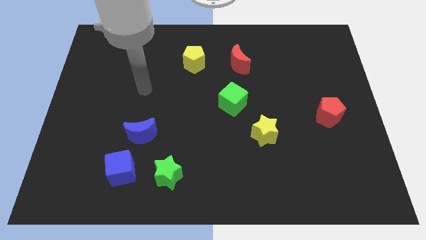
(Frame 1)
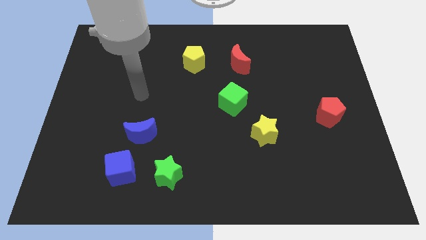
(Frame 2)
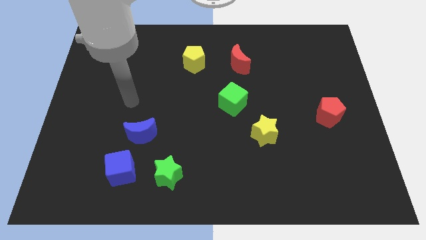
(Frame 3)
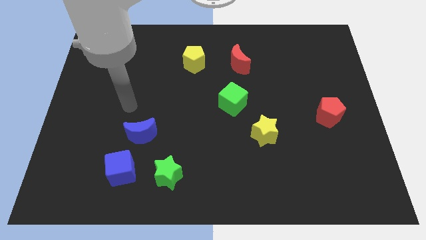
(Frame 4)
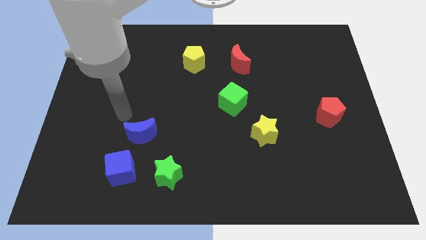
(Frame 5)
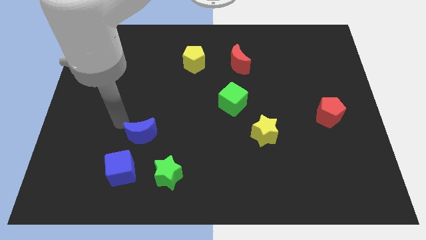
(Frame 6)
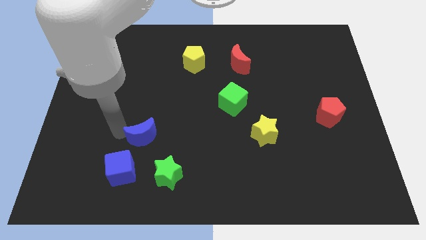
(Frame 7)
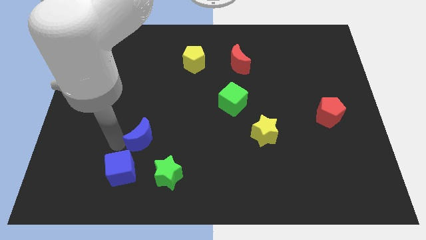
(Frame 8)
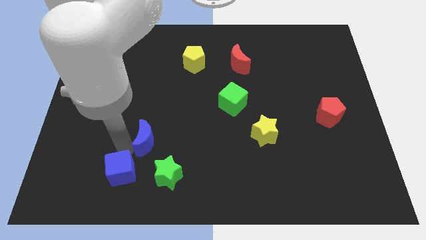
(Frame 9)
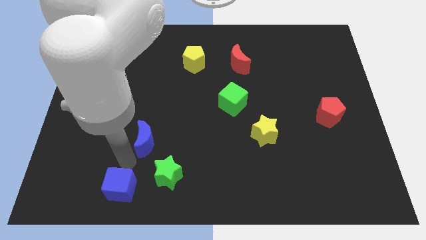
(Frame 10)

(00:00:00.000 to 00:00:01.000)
pull the blue moon apart from the blue cube

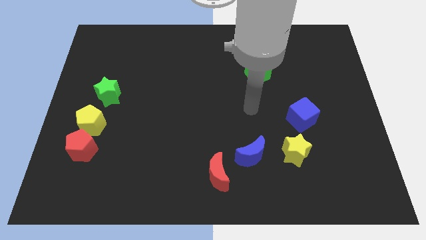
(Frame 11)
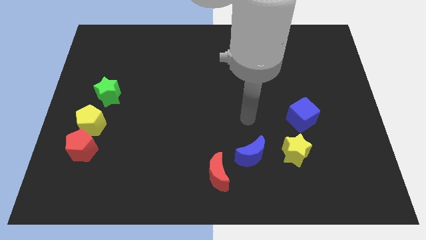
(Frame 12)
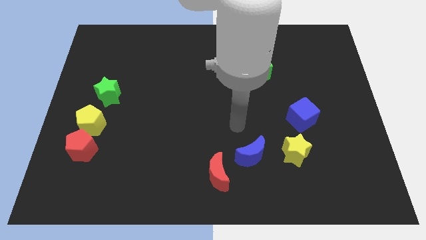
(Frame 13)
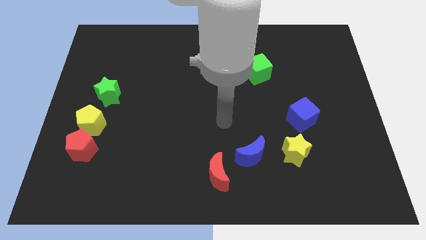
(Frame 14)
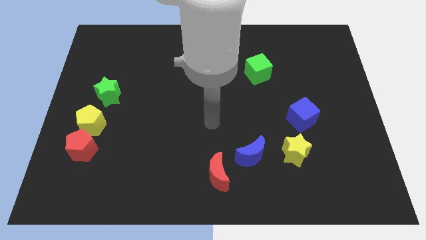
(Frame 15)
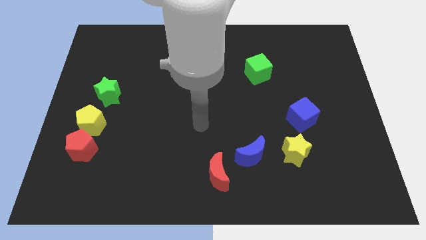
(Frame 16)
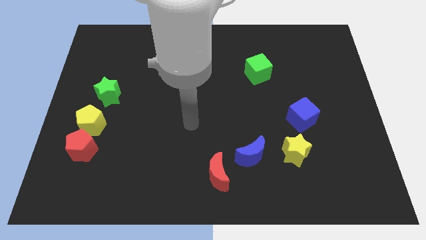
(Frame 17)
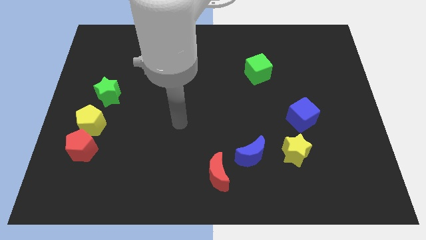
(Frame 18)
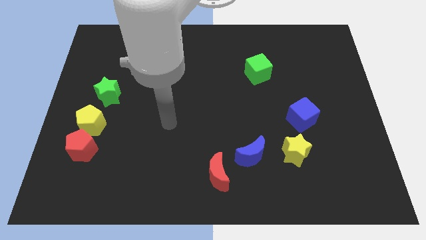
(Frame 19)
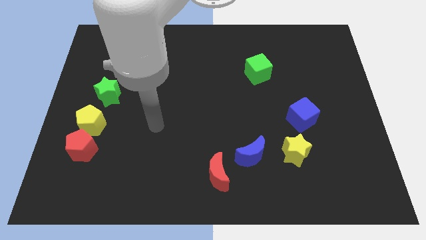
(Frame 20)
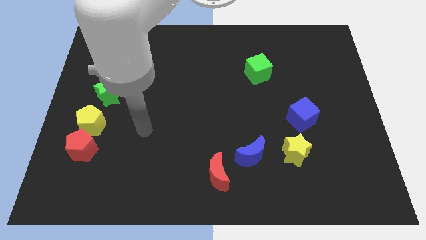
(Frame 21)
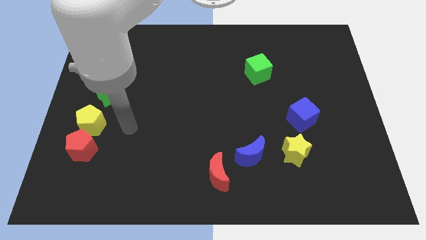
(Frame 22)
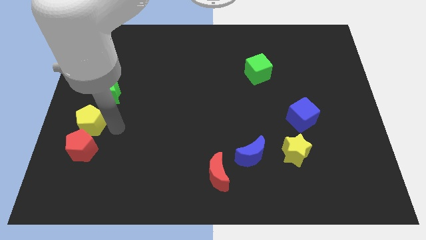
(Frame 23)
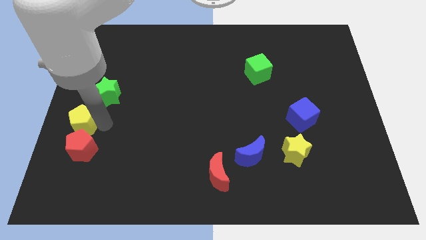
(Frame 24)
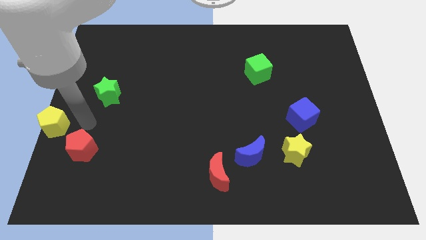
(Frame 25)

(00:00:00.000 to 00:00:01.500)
separate the red pentagon from the yellow pentagon

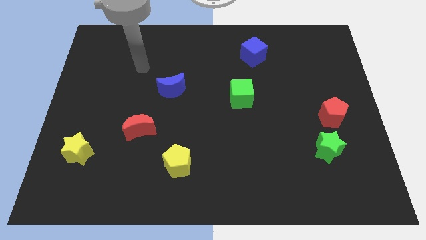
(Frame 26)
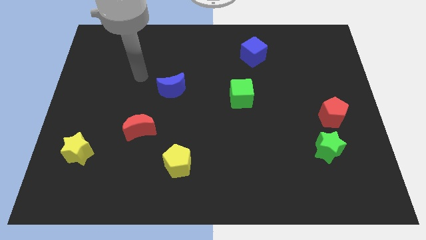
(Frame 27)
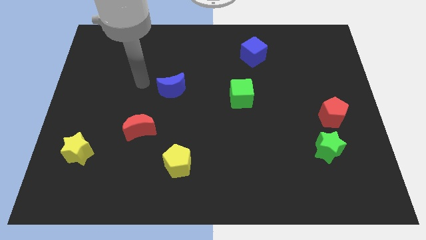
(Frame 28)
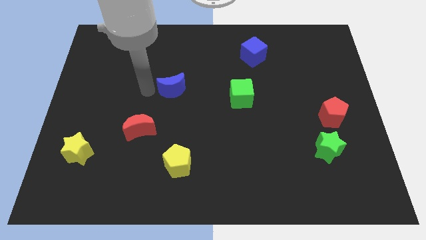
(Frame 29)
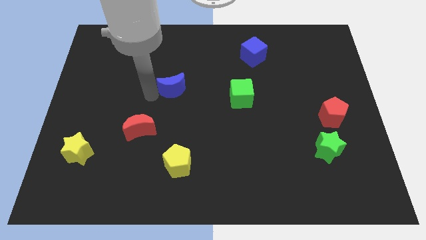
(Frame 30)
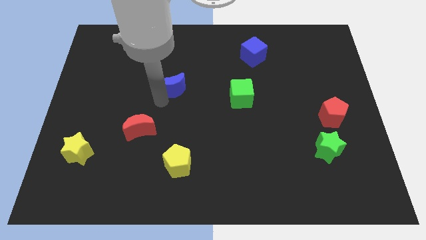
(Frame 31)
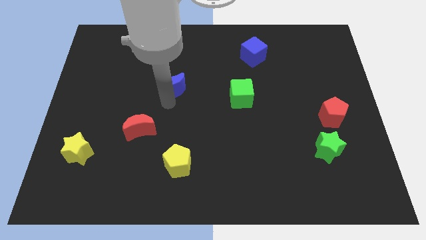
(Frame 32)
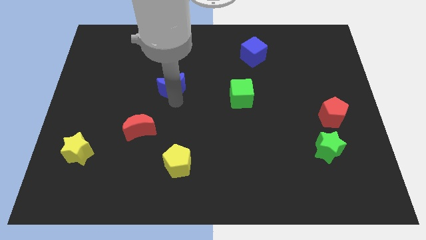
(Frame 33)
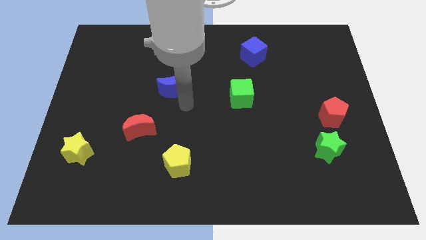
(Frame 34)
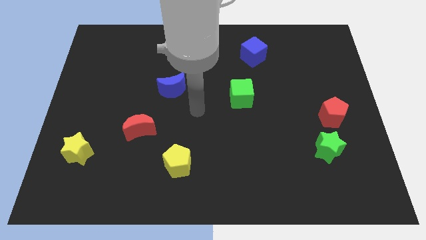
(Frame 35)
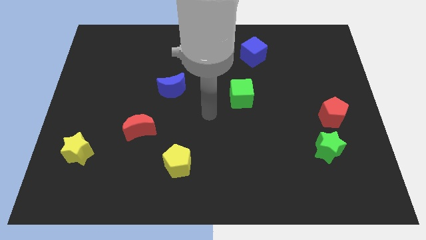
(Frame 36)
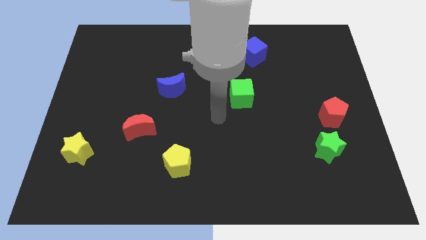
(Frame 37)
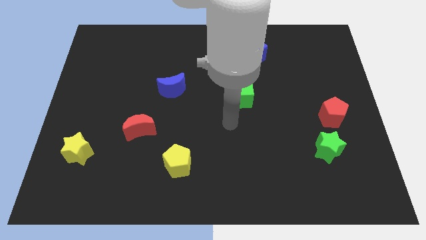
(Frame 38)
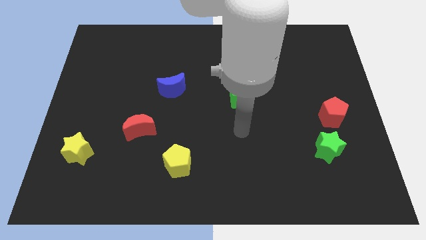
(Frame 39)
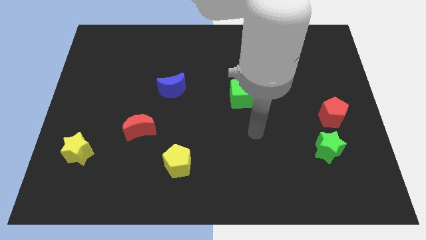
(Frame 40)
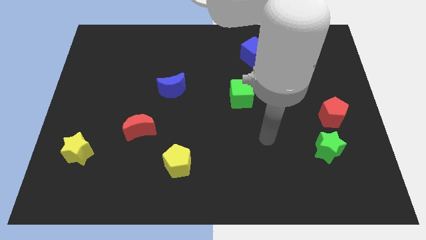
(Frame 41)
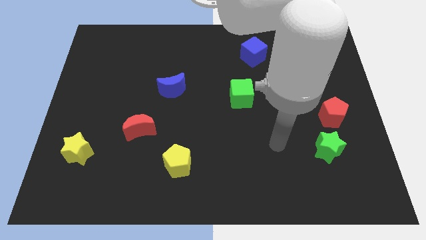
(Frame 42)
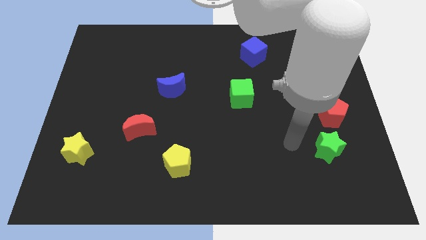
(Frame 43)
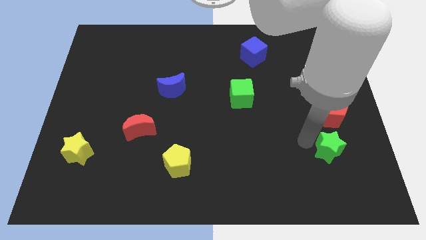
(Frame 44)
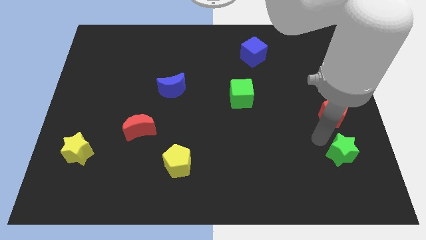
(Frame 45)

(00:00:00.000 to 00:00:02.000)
move the red pentagon away from the green star

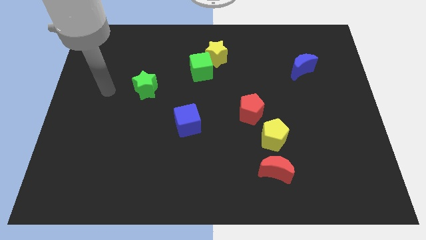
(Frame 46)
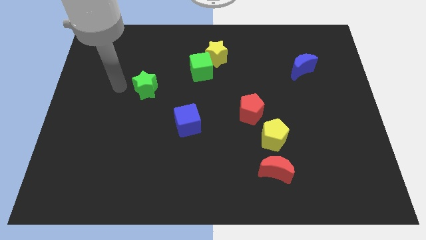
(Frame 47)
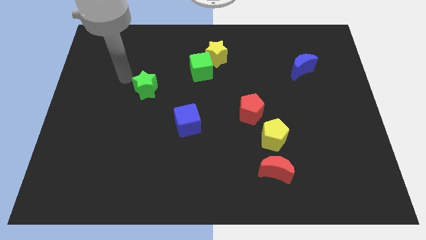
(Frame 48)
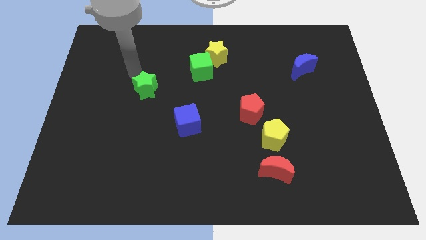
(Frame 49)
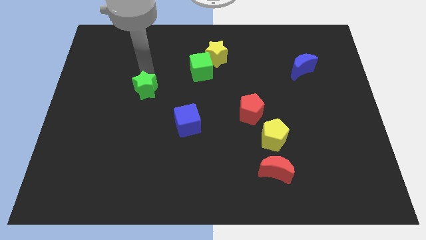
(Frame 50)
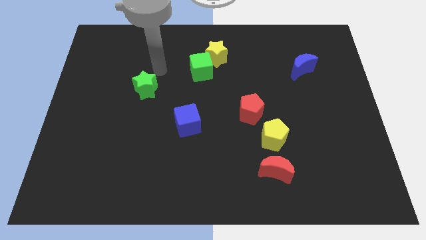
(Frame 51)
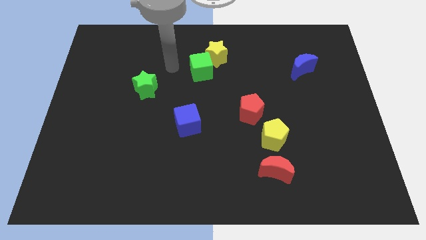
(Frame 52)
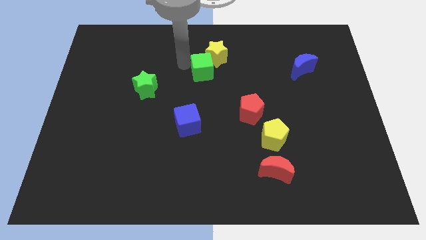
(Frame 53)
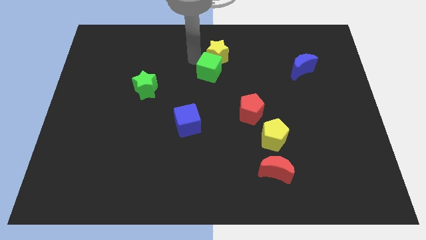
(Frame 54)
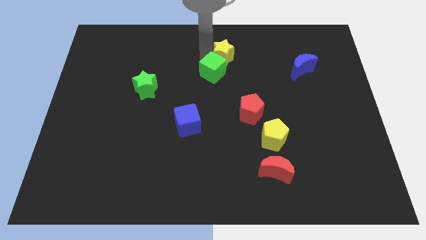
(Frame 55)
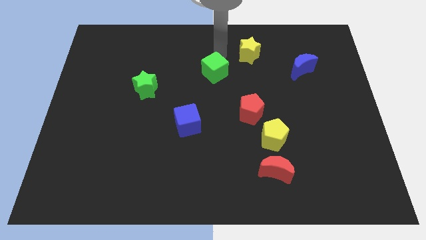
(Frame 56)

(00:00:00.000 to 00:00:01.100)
move the green cube away from the yellow star

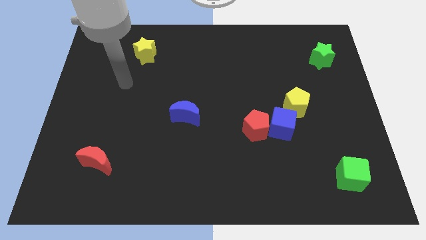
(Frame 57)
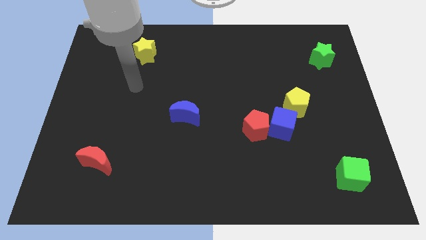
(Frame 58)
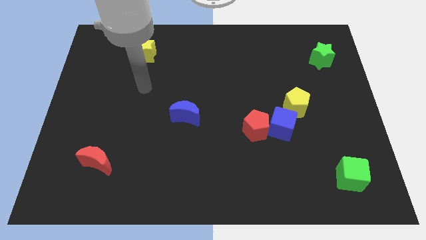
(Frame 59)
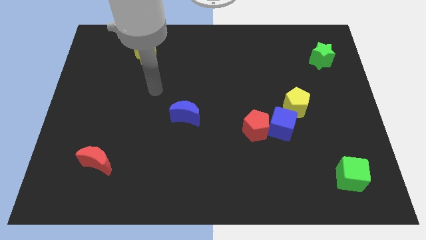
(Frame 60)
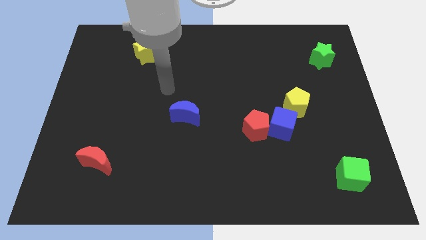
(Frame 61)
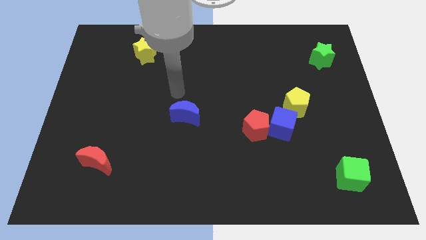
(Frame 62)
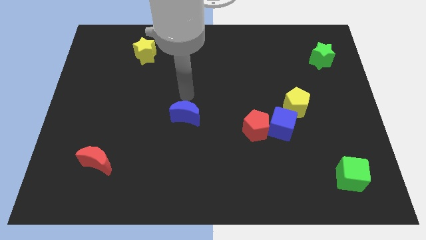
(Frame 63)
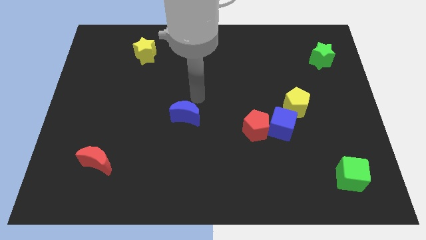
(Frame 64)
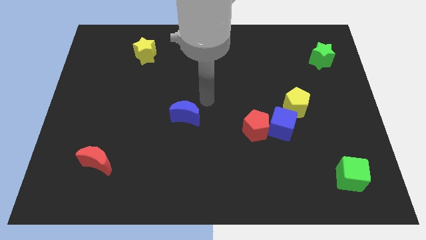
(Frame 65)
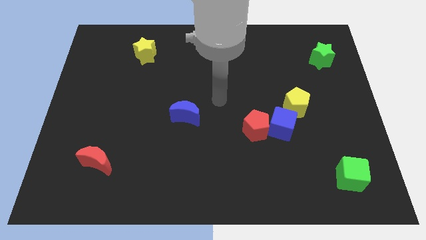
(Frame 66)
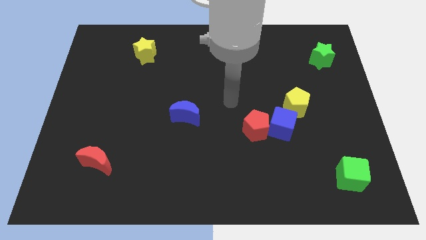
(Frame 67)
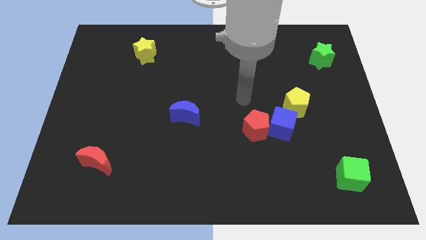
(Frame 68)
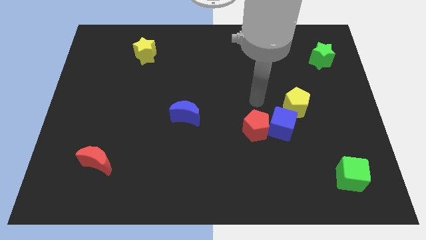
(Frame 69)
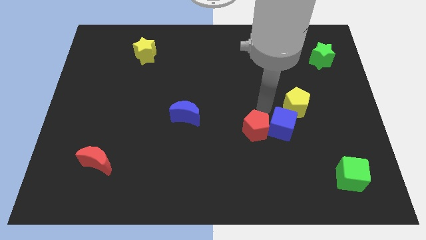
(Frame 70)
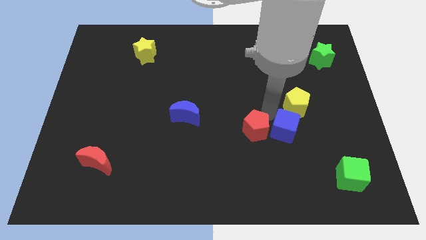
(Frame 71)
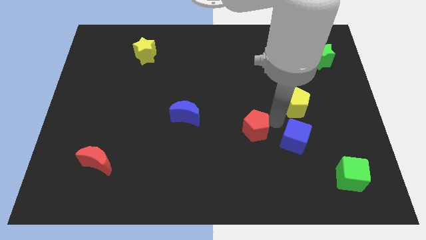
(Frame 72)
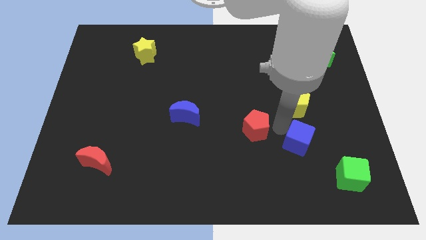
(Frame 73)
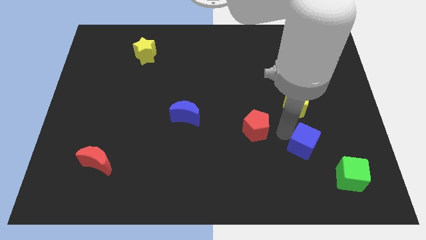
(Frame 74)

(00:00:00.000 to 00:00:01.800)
move the red pentagon away from the blue cube

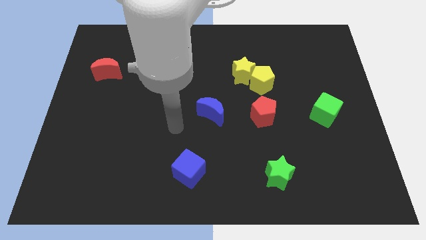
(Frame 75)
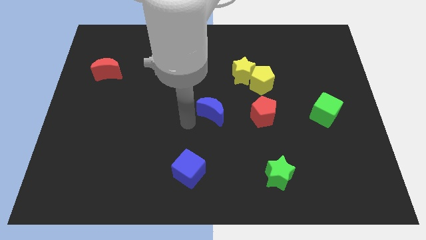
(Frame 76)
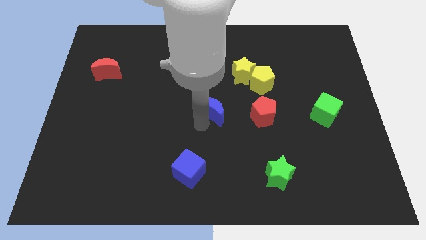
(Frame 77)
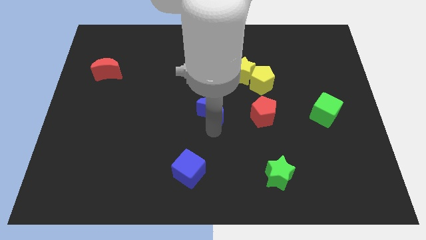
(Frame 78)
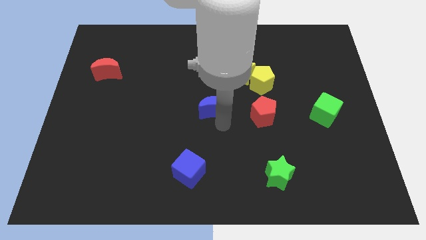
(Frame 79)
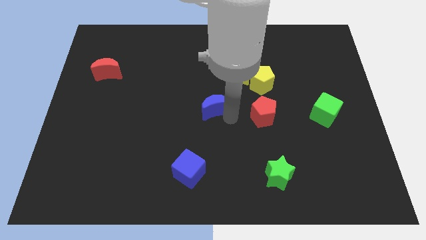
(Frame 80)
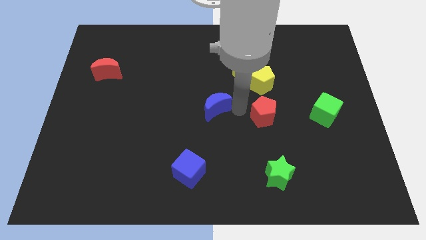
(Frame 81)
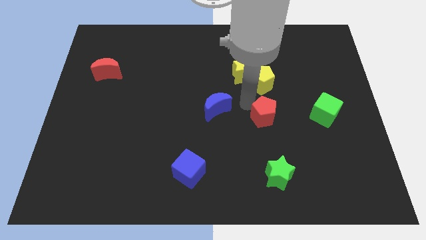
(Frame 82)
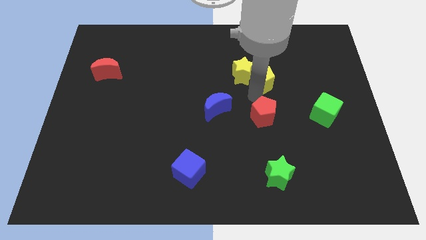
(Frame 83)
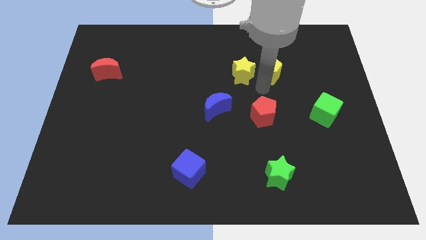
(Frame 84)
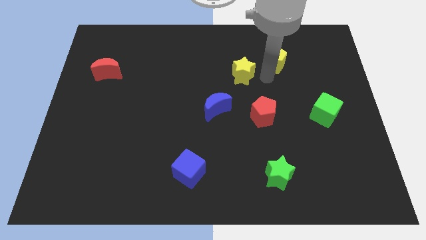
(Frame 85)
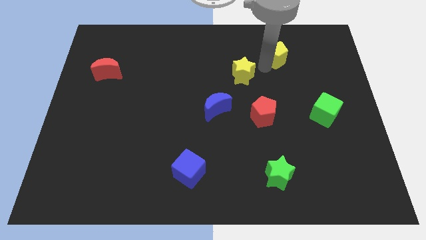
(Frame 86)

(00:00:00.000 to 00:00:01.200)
separate the yellow star from the yellow pentagon

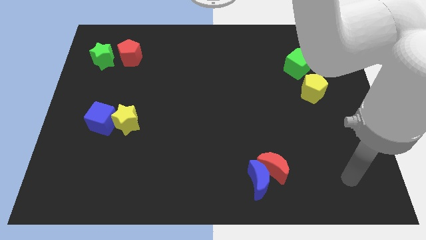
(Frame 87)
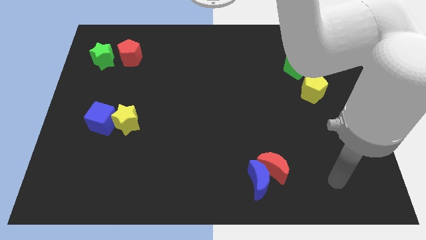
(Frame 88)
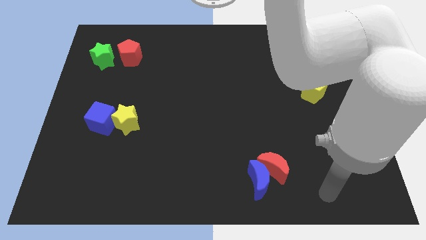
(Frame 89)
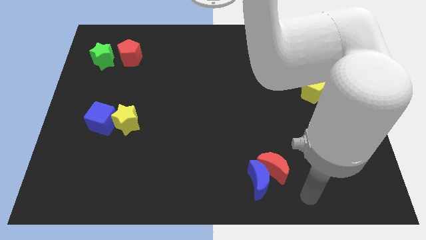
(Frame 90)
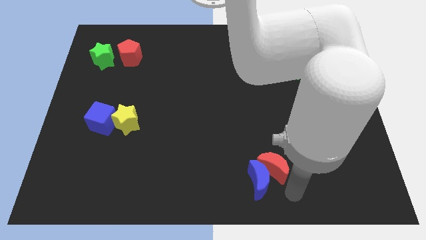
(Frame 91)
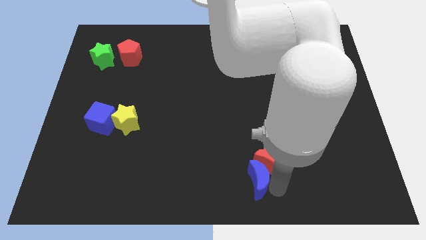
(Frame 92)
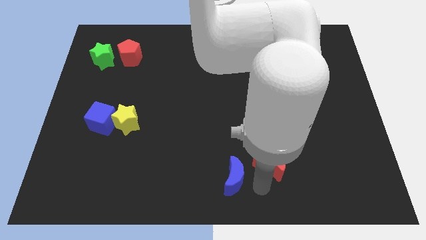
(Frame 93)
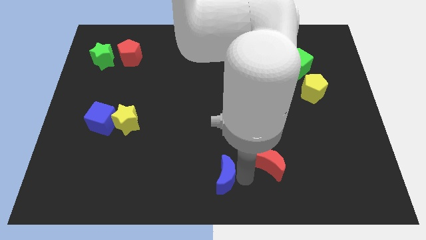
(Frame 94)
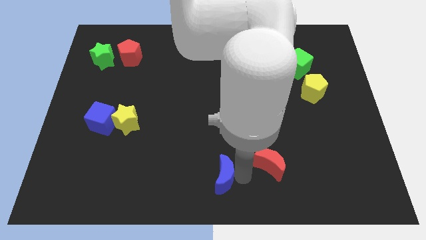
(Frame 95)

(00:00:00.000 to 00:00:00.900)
pull the red moon apart from the blue moon
